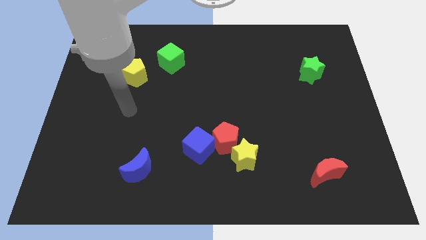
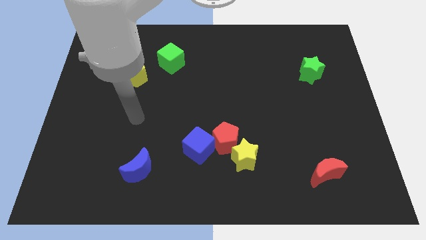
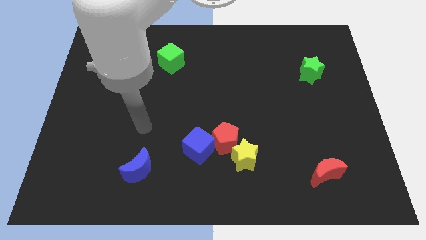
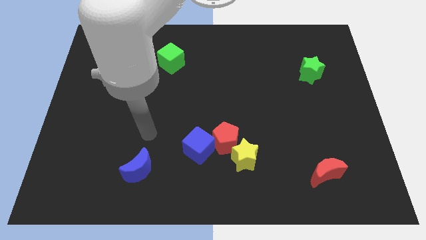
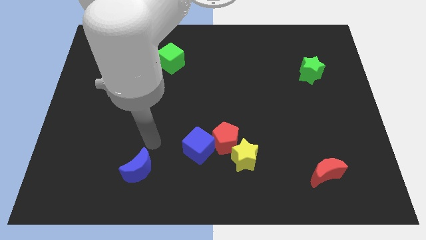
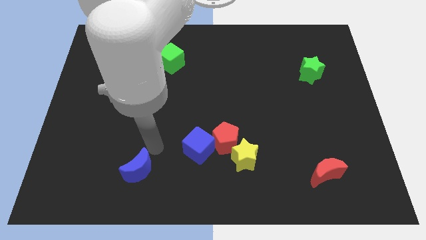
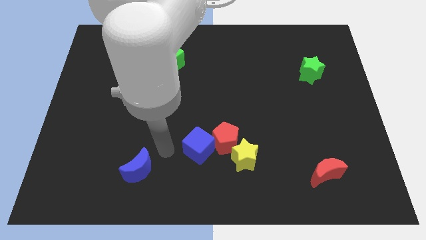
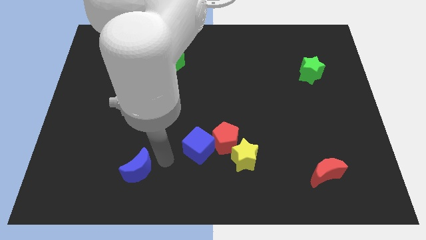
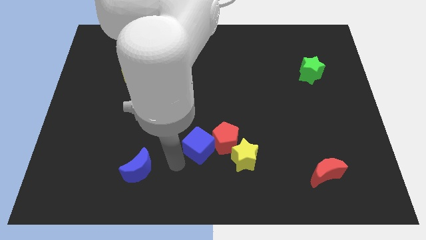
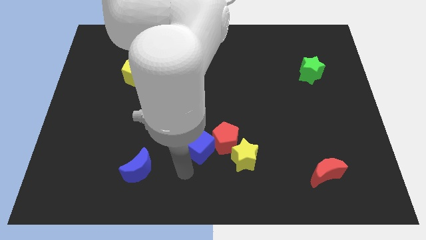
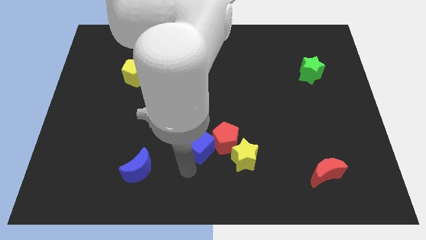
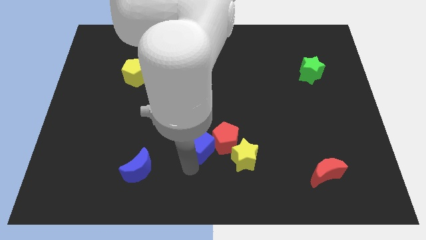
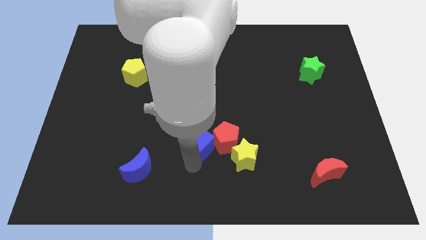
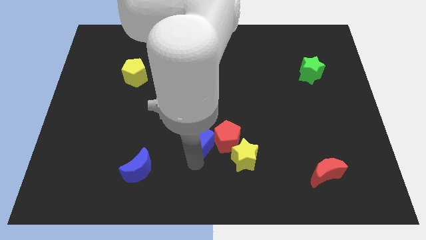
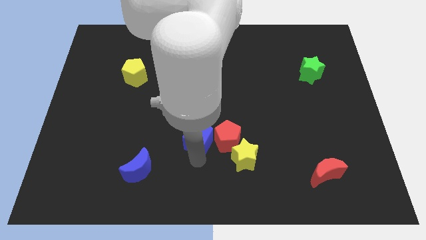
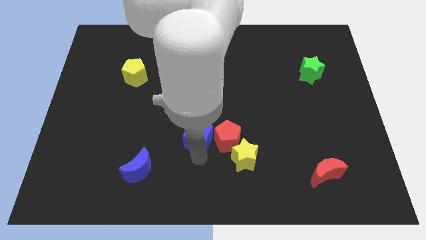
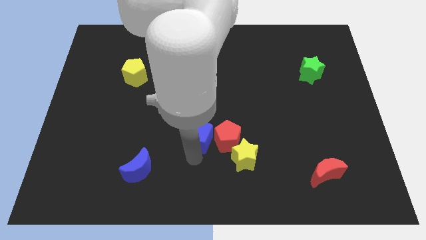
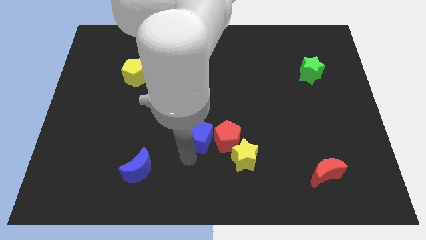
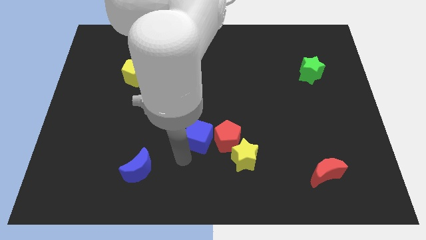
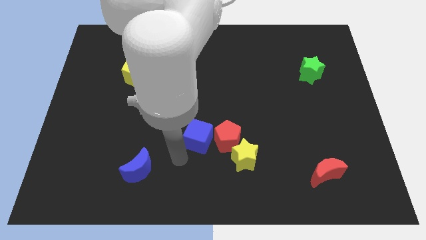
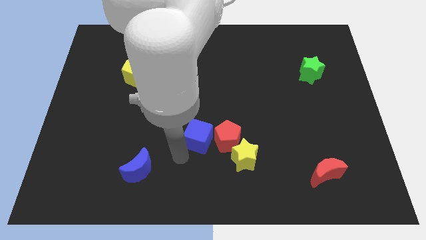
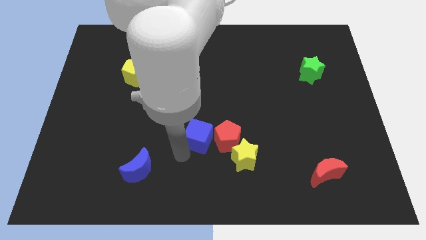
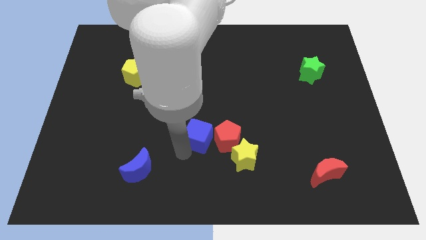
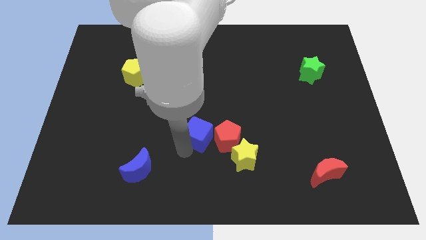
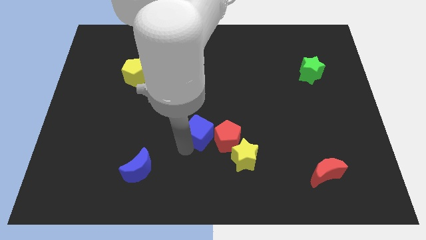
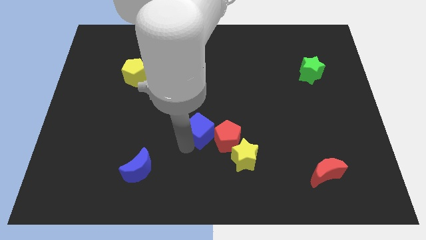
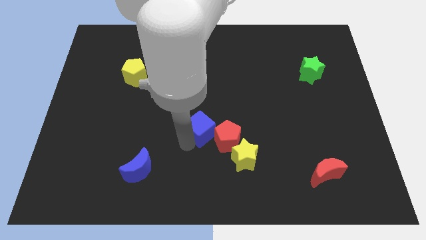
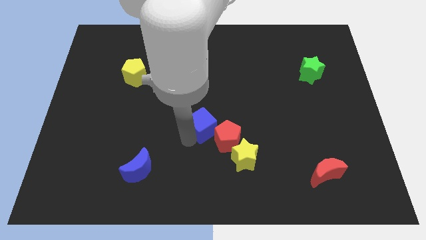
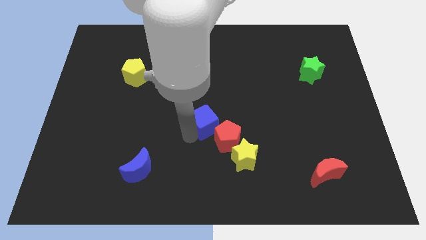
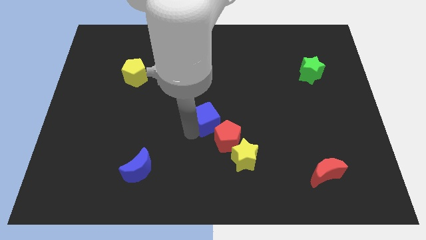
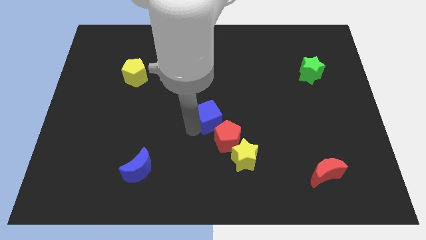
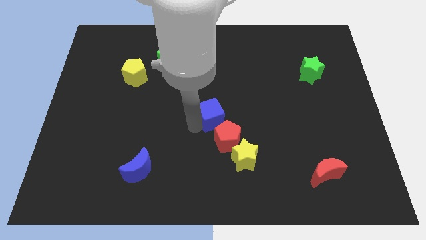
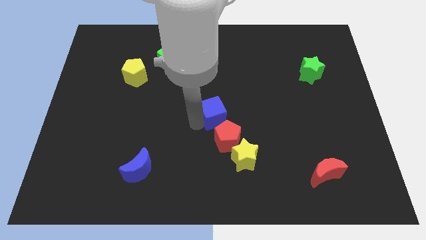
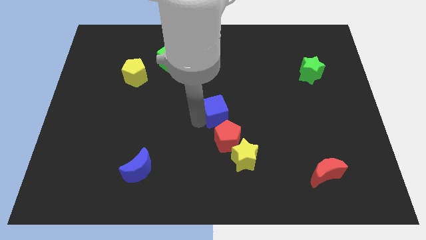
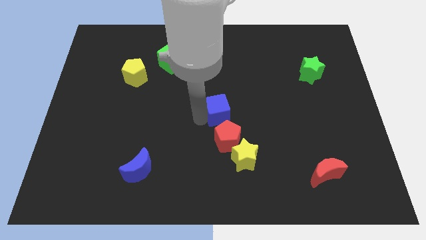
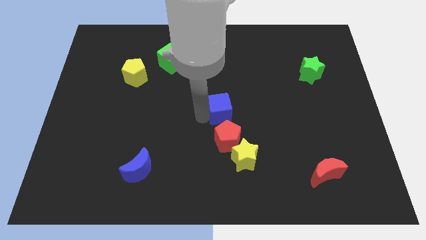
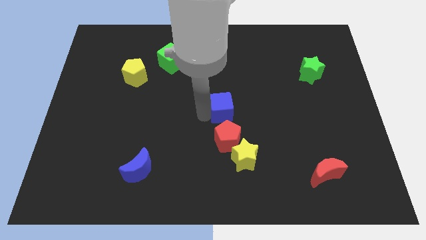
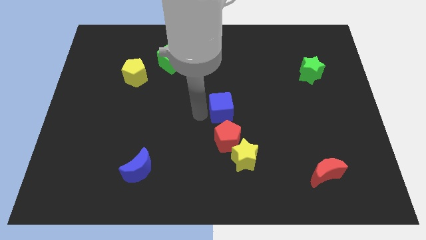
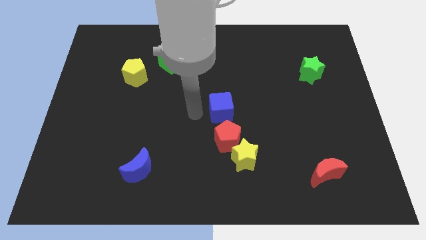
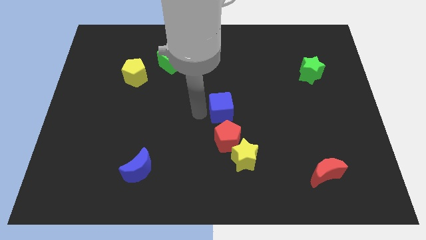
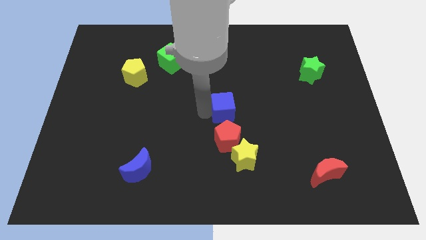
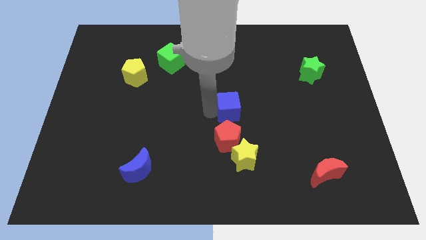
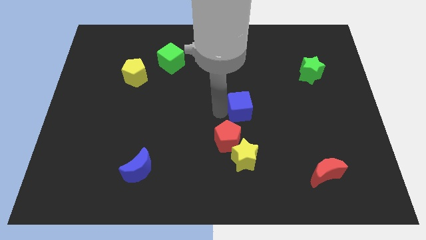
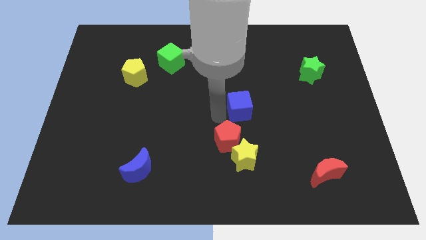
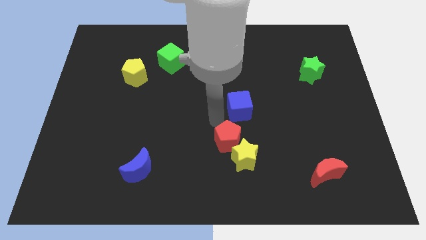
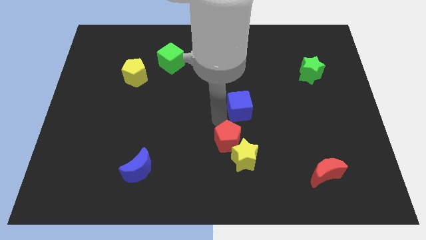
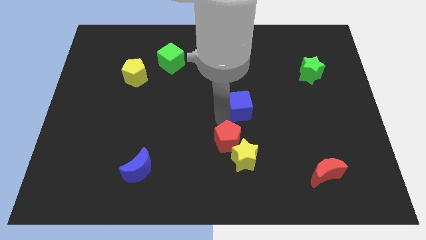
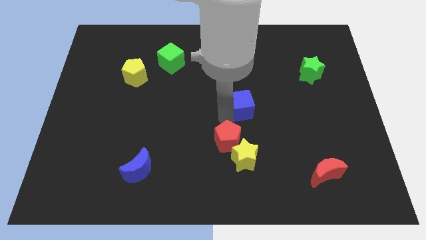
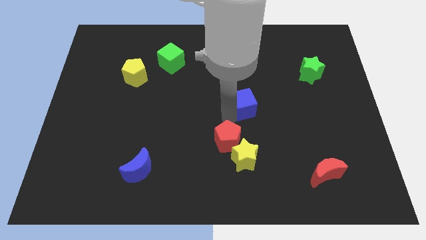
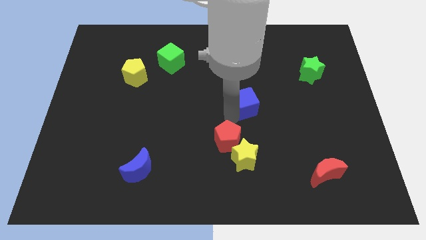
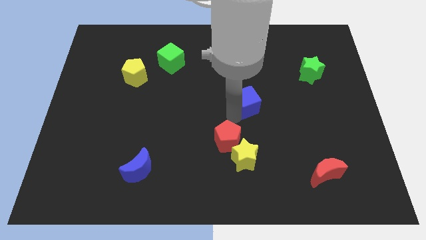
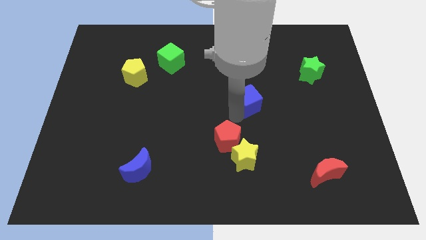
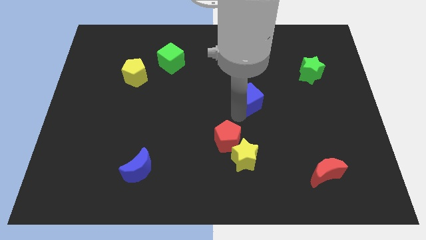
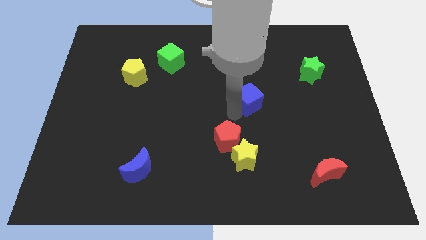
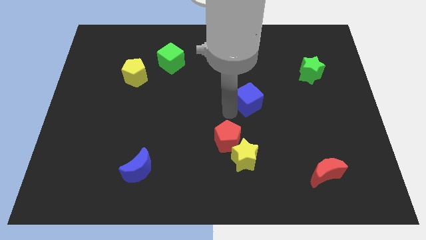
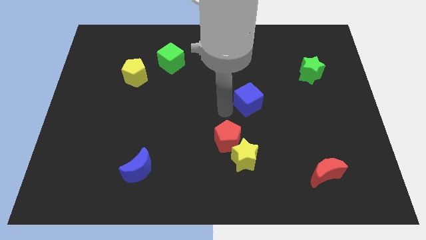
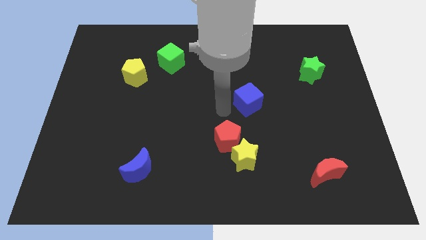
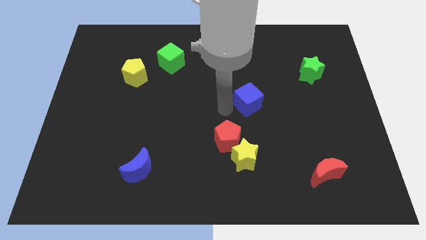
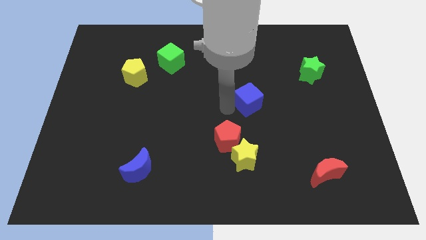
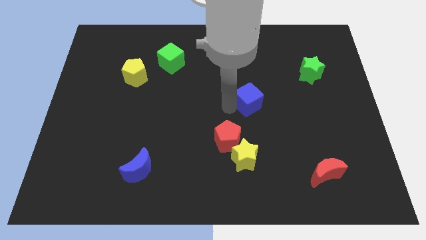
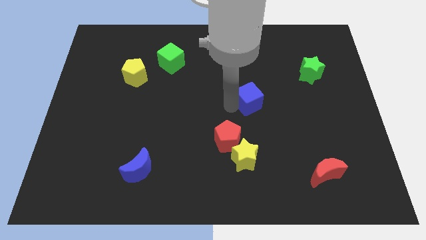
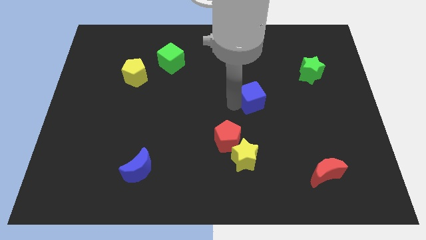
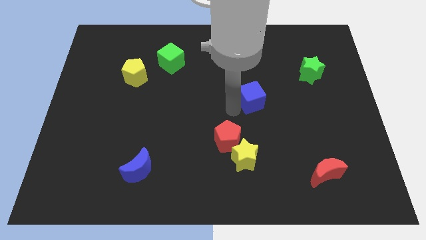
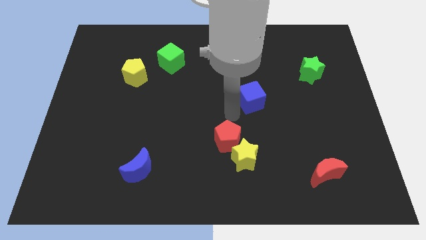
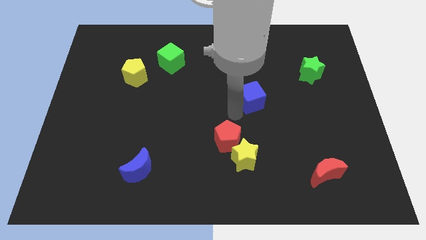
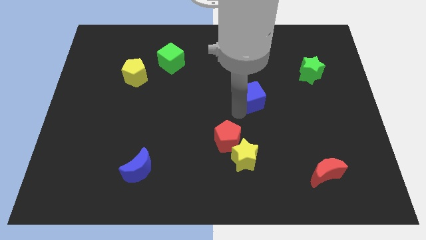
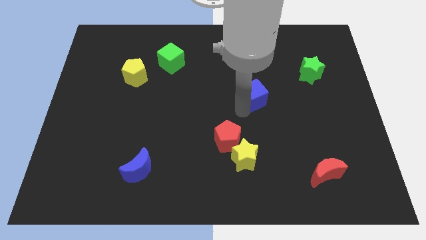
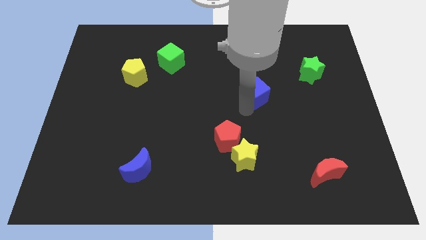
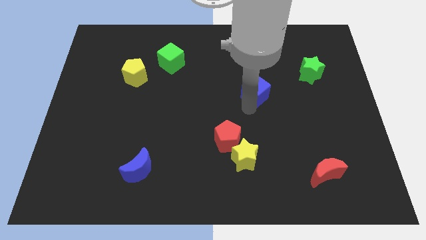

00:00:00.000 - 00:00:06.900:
push the blue cube diagonally up and to the right

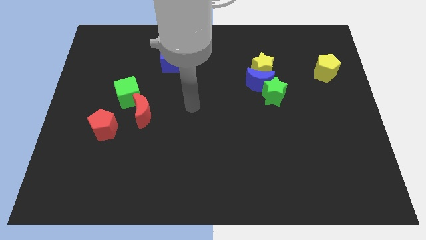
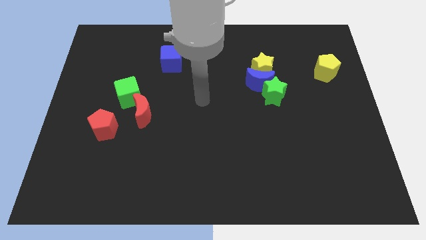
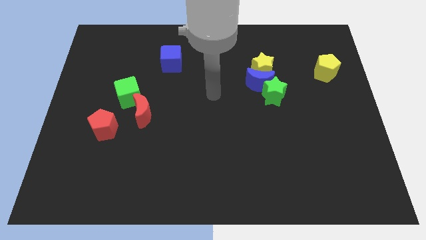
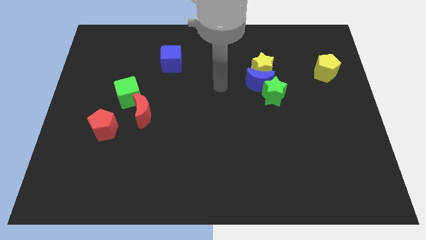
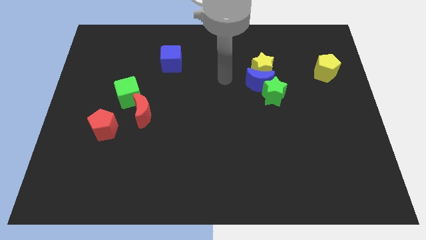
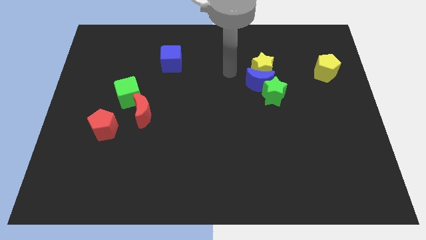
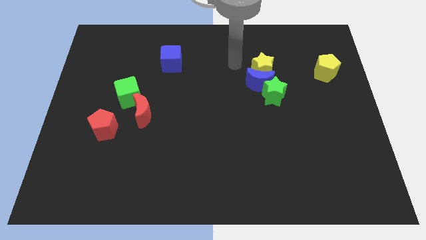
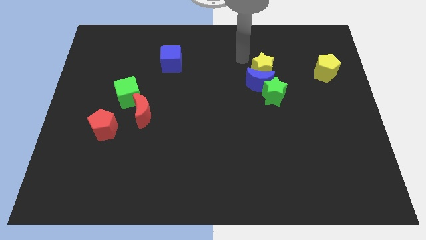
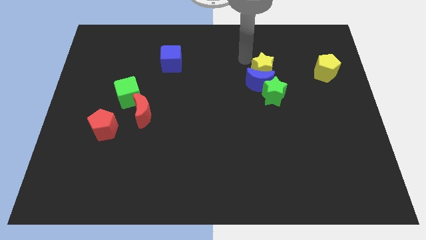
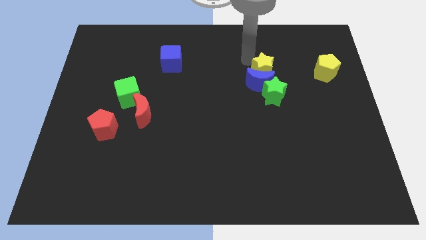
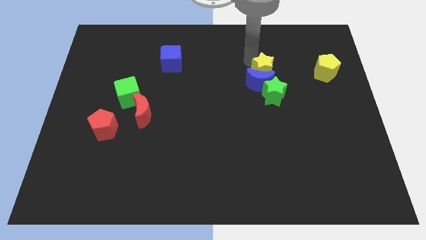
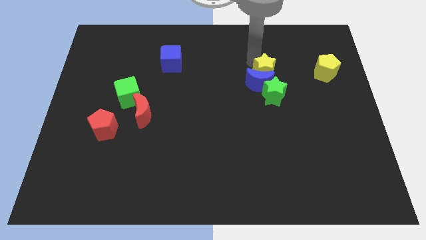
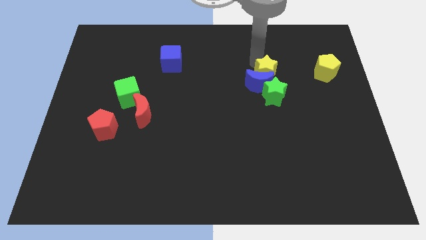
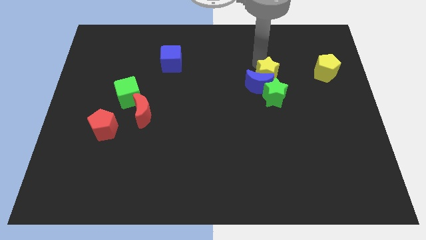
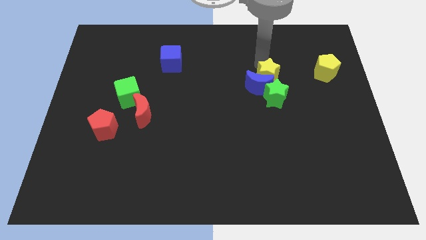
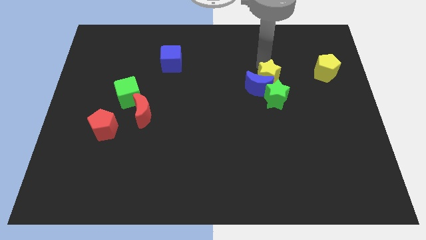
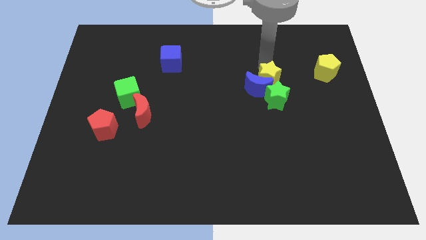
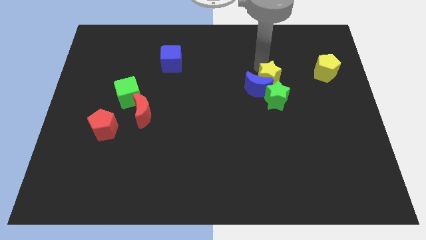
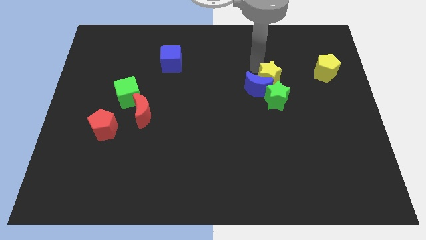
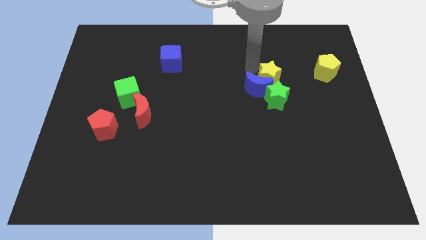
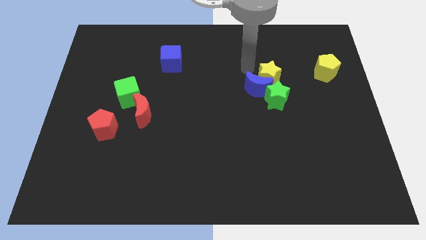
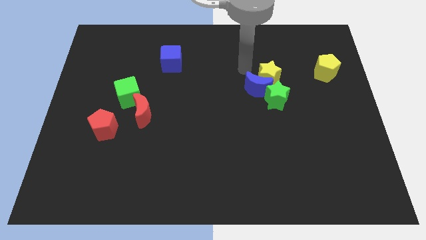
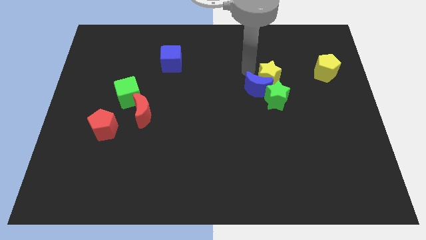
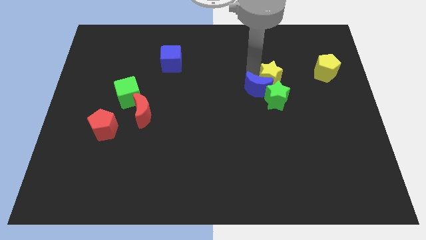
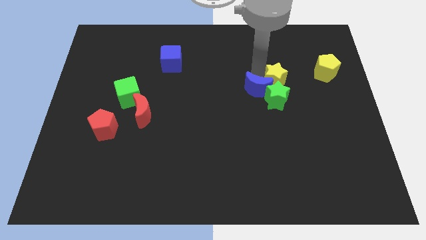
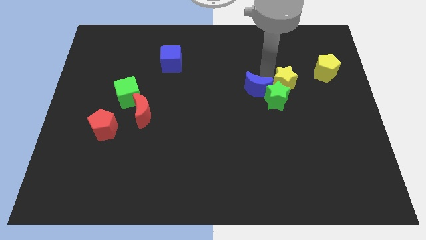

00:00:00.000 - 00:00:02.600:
slide the yellow star down and to the right diagonally a little bit
